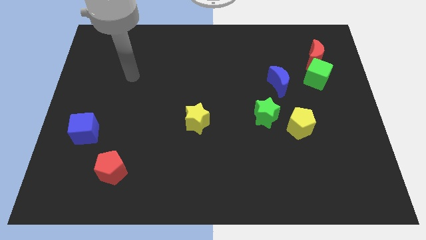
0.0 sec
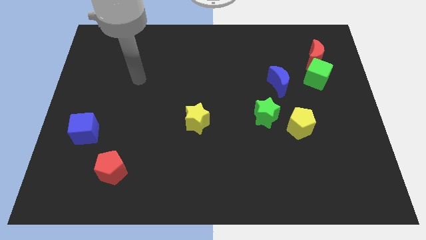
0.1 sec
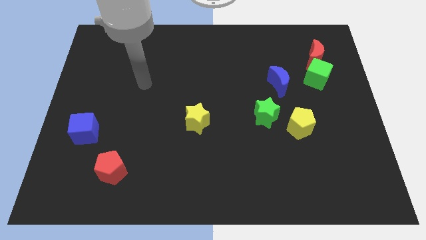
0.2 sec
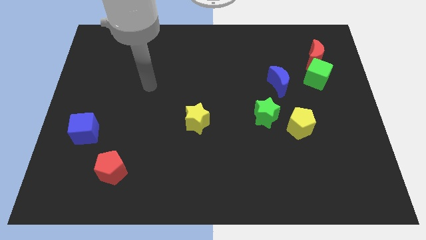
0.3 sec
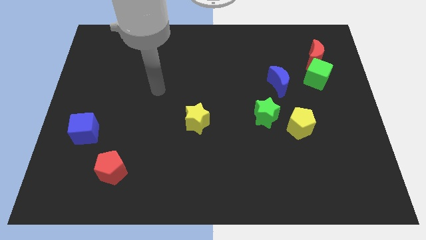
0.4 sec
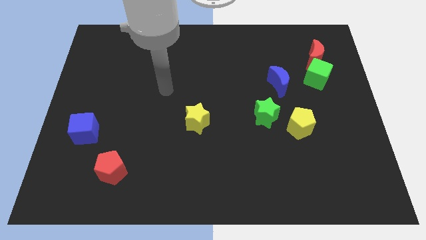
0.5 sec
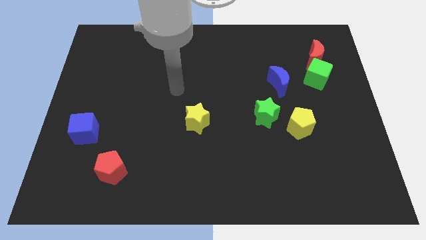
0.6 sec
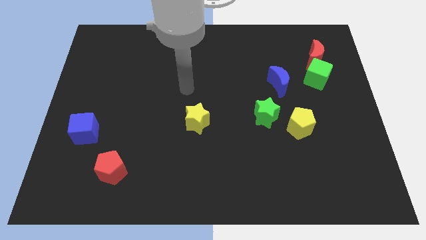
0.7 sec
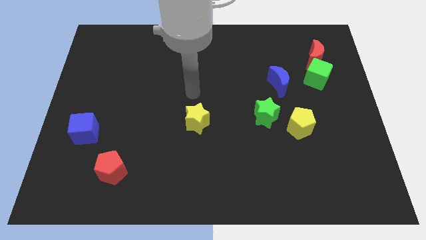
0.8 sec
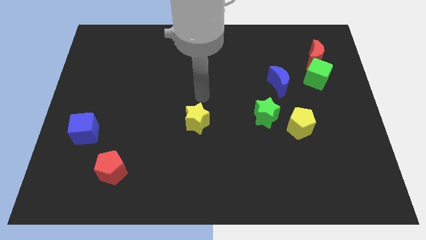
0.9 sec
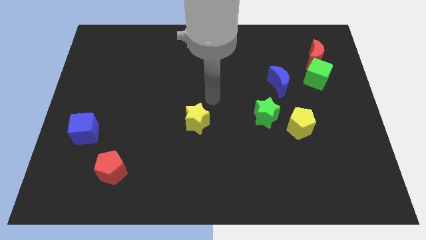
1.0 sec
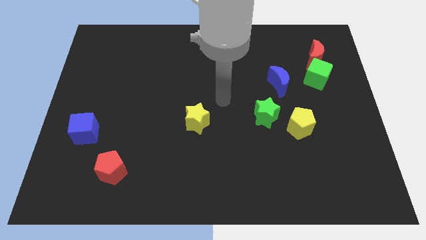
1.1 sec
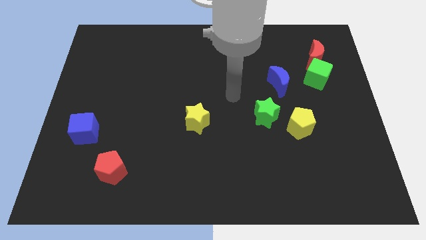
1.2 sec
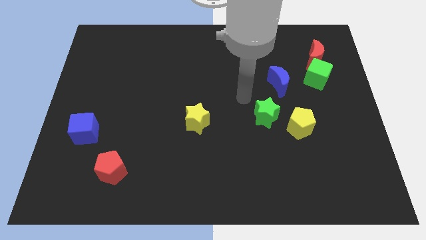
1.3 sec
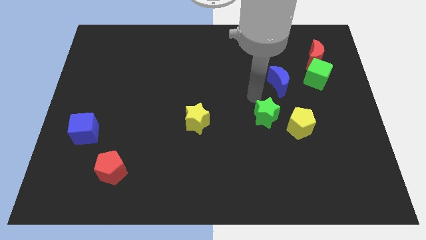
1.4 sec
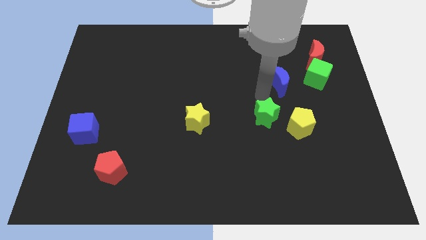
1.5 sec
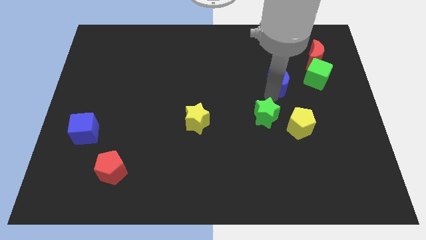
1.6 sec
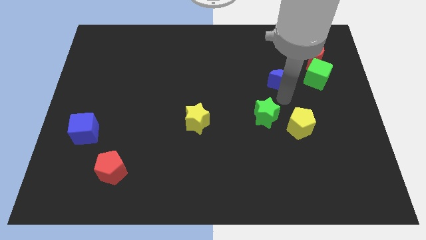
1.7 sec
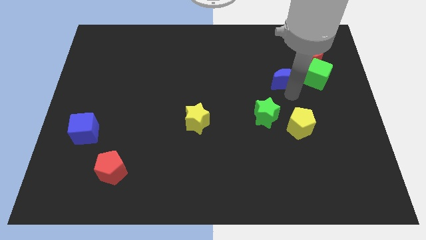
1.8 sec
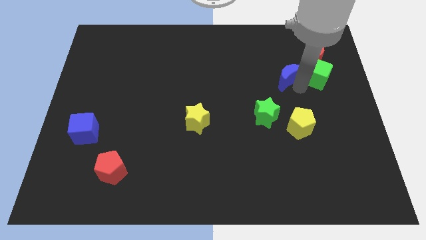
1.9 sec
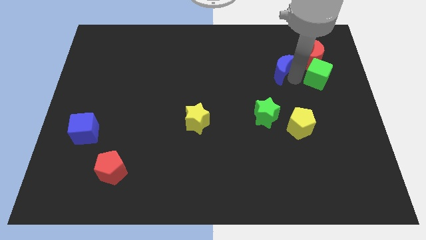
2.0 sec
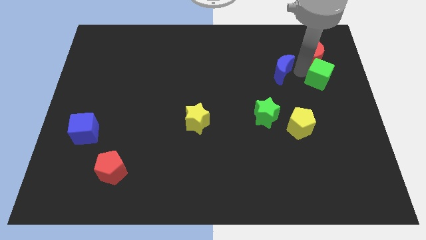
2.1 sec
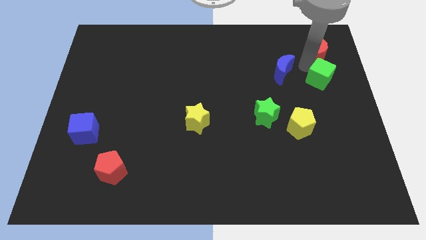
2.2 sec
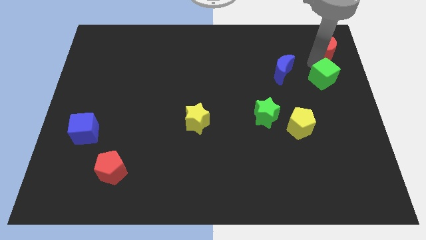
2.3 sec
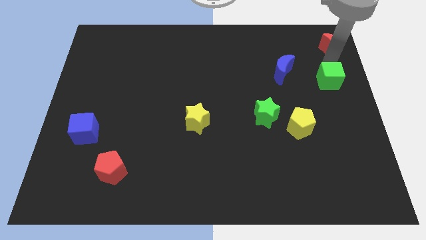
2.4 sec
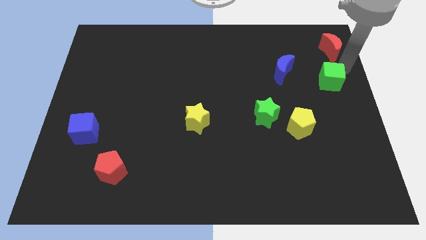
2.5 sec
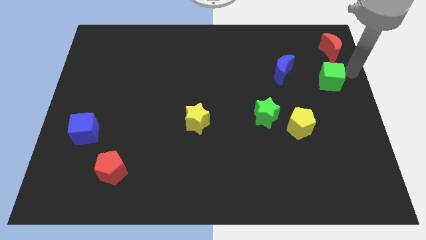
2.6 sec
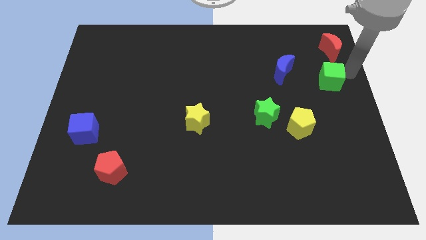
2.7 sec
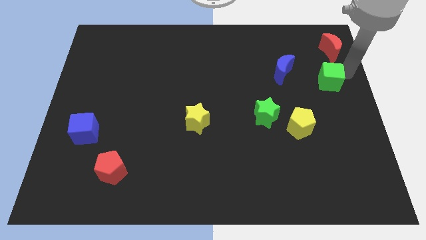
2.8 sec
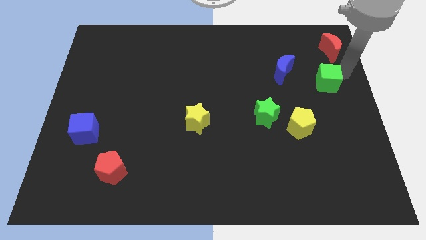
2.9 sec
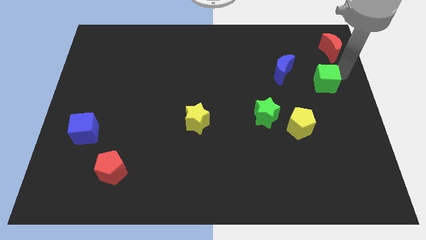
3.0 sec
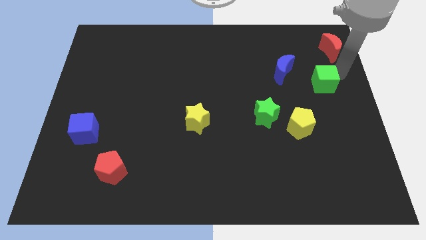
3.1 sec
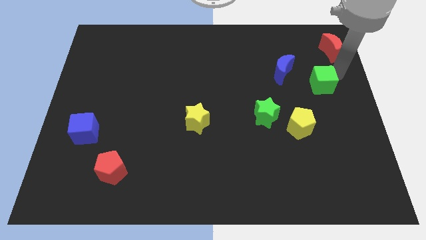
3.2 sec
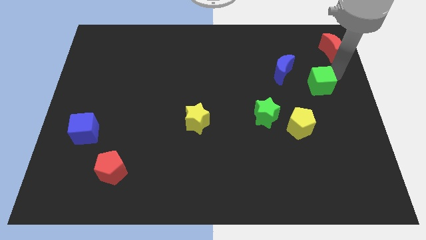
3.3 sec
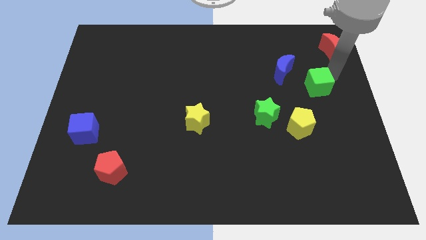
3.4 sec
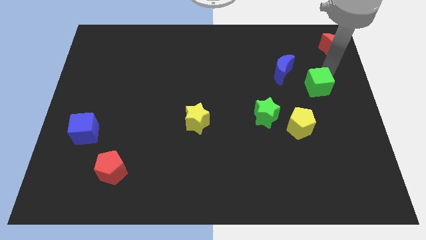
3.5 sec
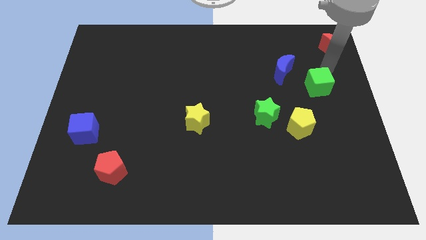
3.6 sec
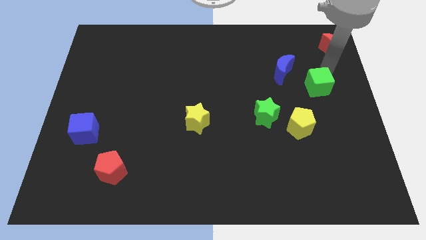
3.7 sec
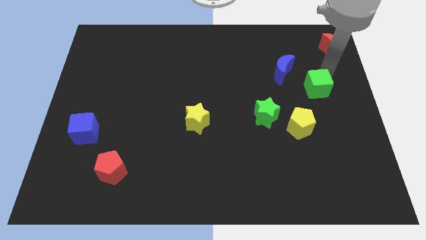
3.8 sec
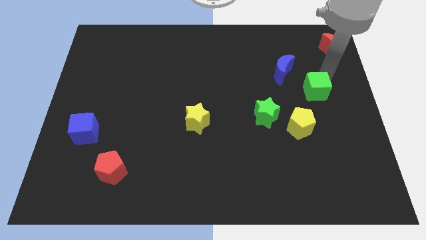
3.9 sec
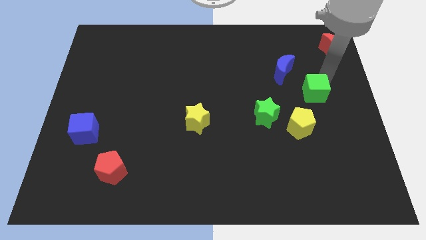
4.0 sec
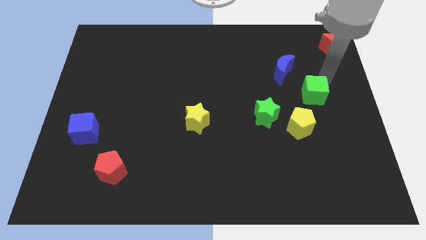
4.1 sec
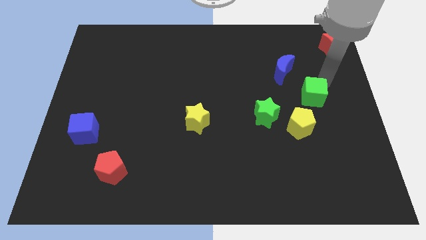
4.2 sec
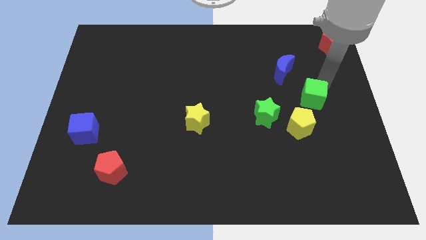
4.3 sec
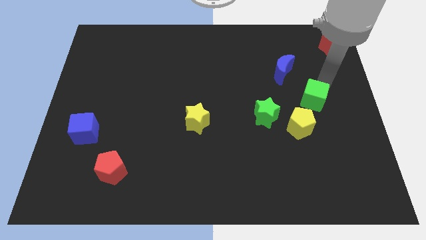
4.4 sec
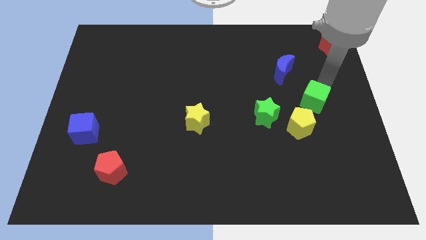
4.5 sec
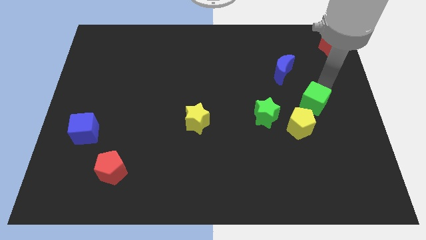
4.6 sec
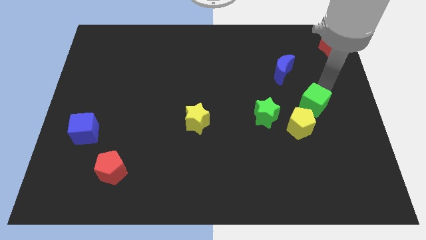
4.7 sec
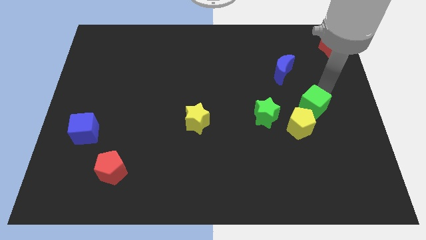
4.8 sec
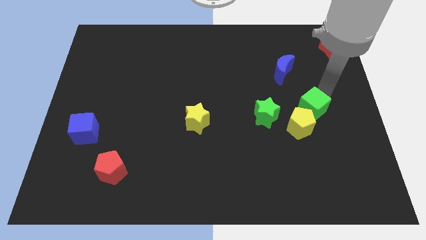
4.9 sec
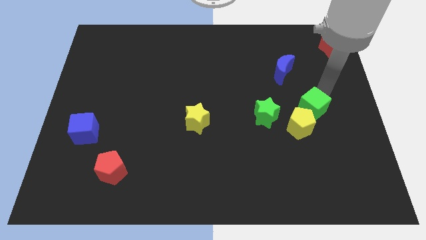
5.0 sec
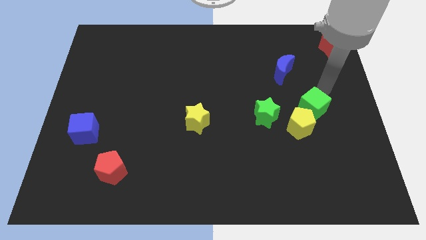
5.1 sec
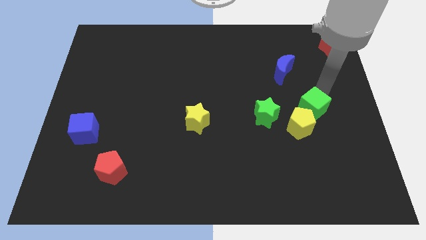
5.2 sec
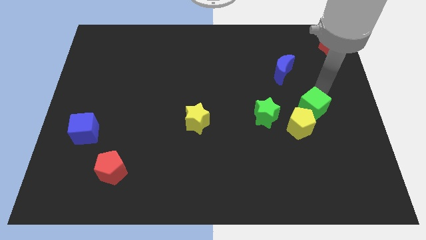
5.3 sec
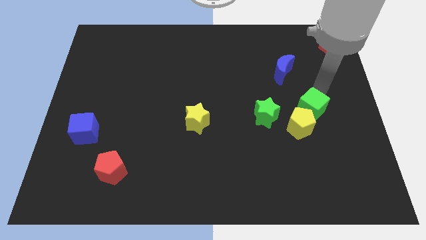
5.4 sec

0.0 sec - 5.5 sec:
put the green cube to the yellow pentagon
